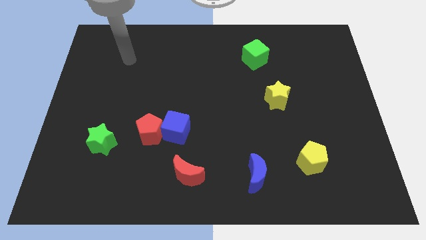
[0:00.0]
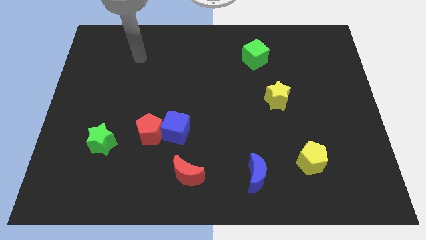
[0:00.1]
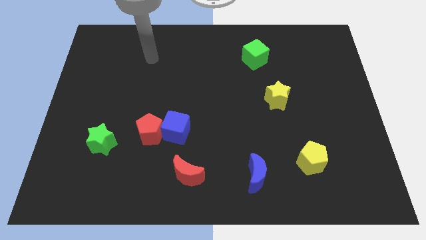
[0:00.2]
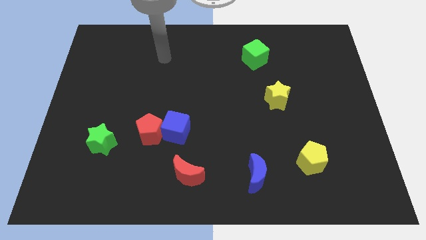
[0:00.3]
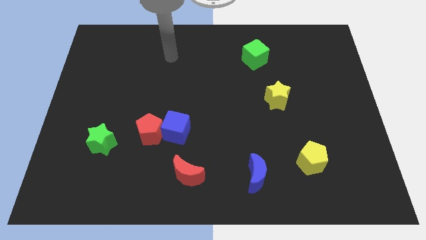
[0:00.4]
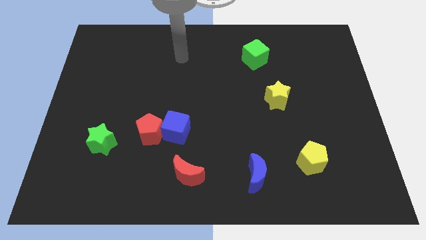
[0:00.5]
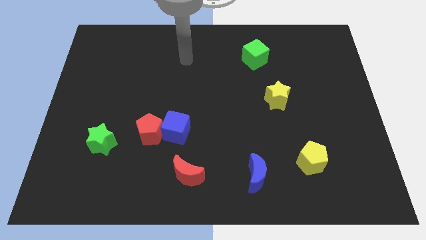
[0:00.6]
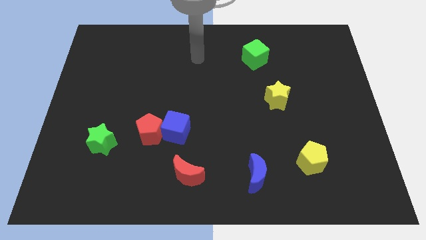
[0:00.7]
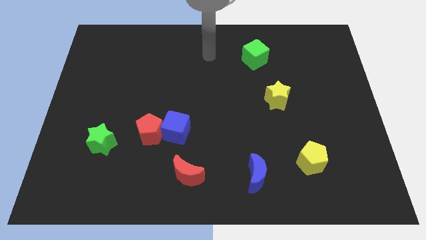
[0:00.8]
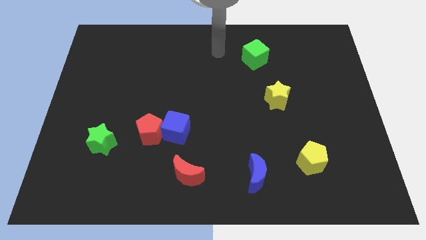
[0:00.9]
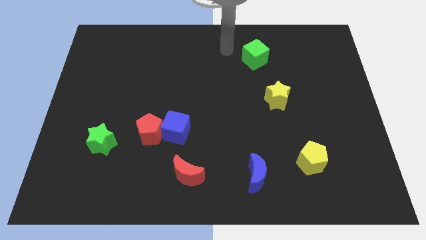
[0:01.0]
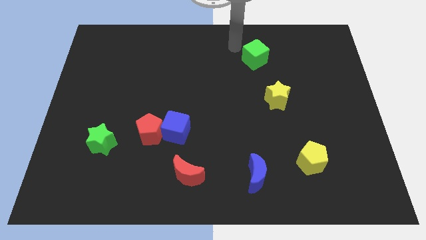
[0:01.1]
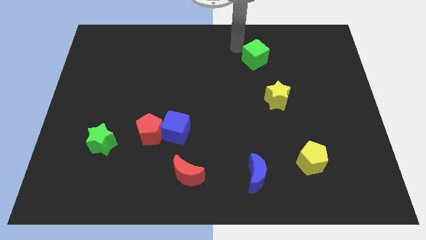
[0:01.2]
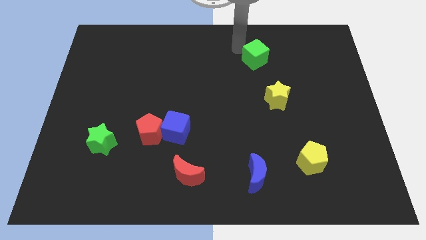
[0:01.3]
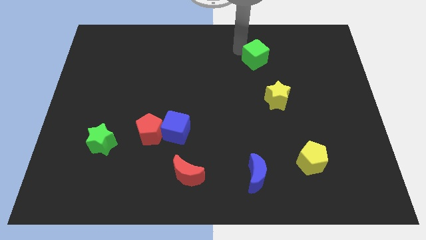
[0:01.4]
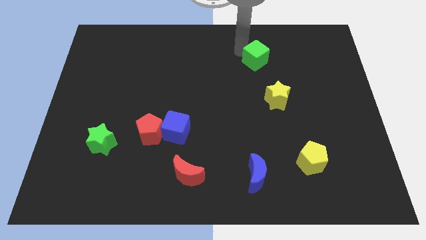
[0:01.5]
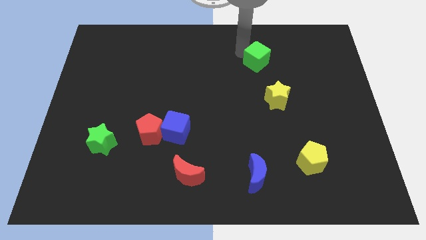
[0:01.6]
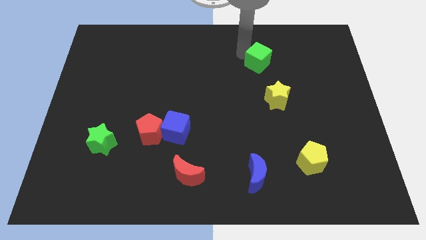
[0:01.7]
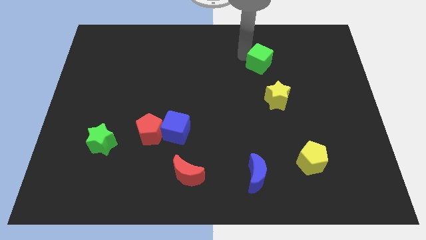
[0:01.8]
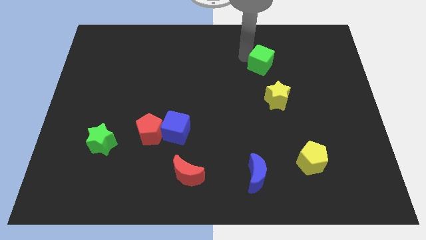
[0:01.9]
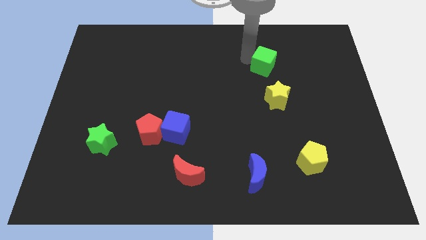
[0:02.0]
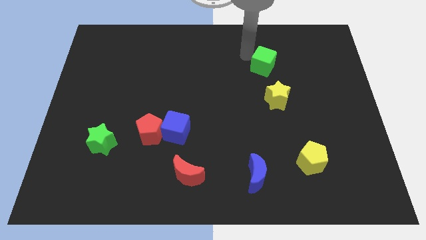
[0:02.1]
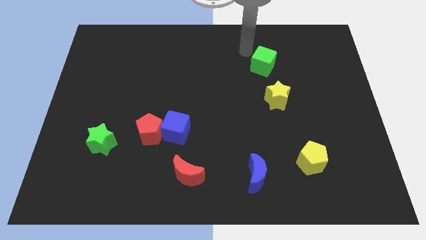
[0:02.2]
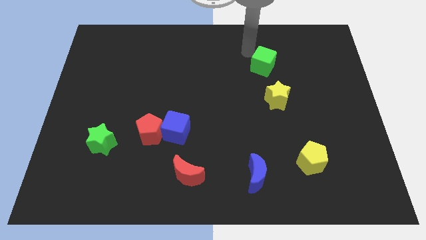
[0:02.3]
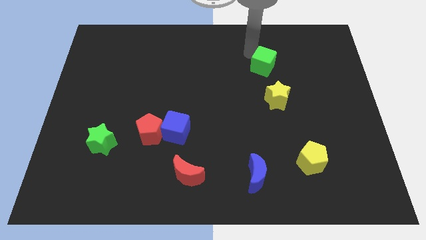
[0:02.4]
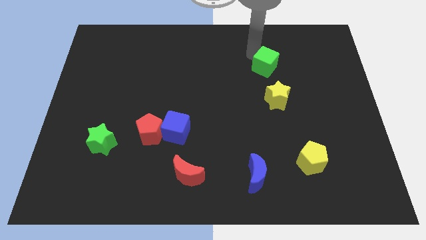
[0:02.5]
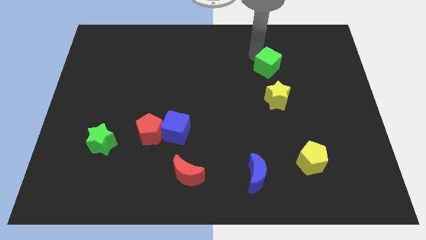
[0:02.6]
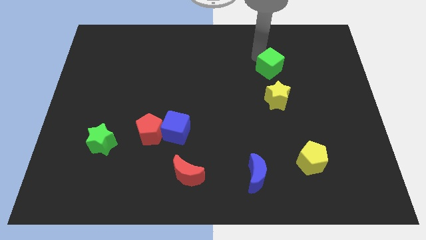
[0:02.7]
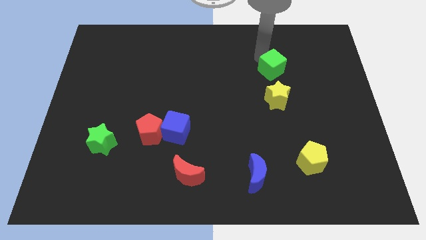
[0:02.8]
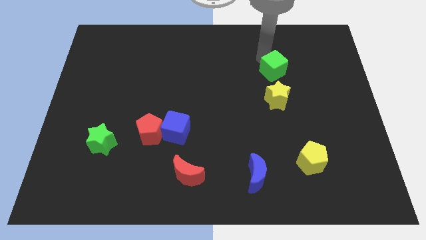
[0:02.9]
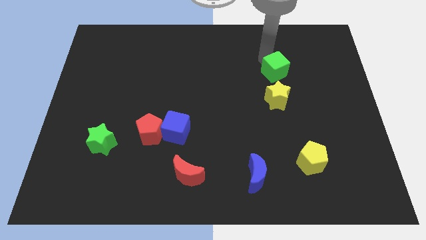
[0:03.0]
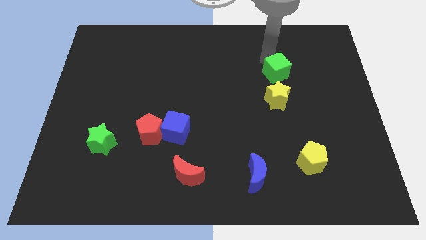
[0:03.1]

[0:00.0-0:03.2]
move the green cube down and to the right a little

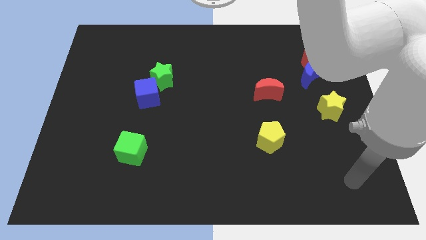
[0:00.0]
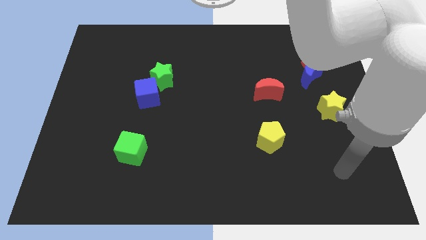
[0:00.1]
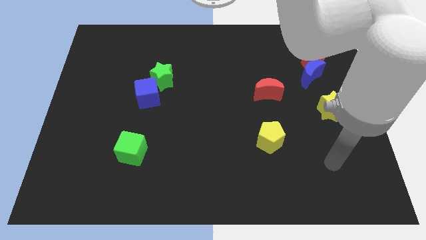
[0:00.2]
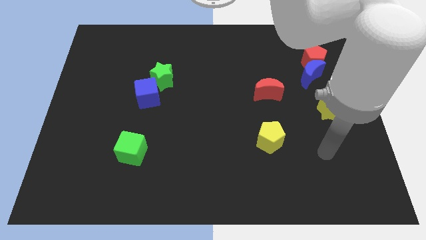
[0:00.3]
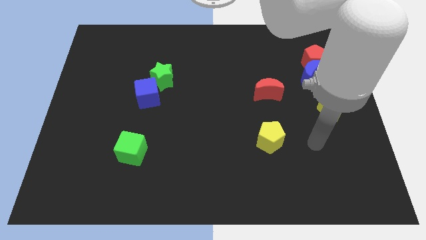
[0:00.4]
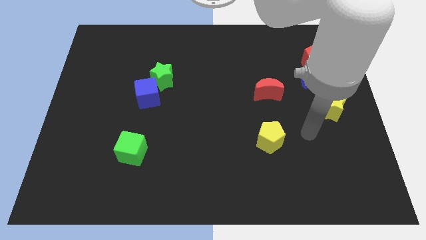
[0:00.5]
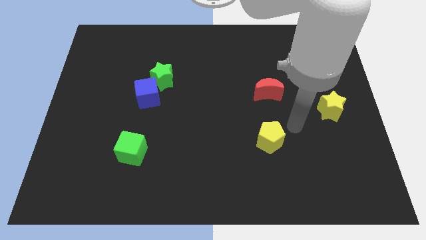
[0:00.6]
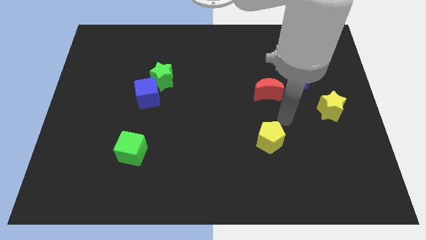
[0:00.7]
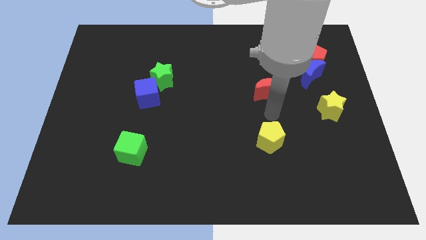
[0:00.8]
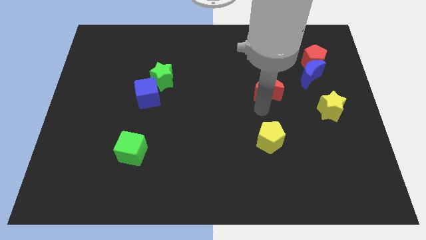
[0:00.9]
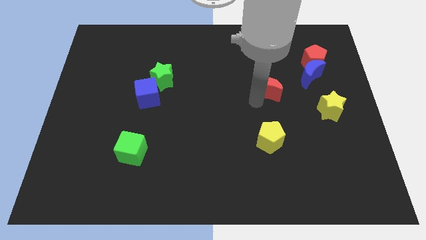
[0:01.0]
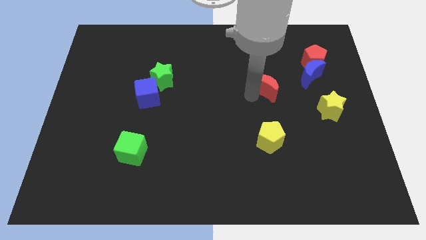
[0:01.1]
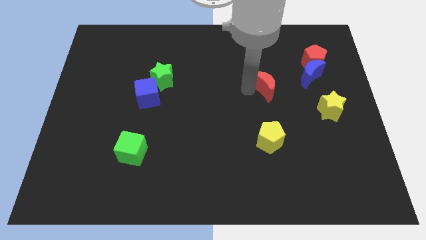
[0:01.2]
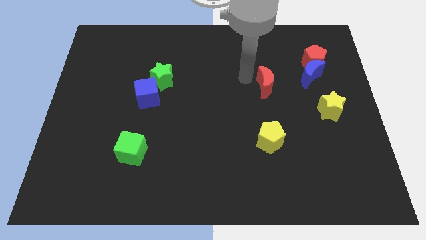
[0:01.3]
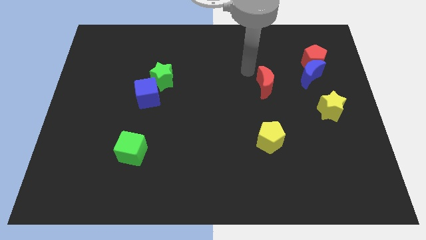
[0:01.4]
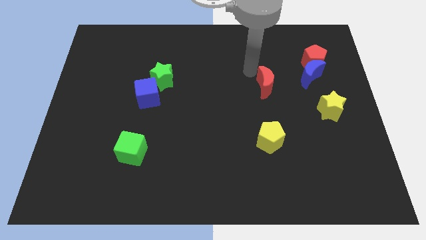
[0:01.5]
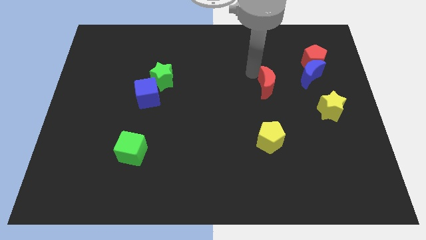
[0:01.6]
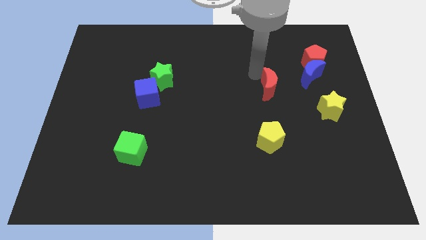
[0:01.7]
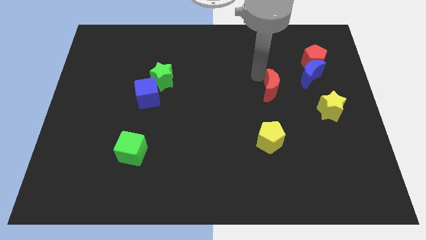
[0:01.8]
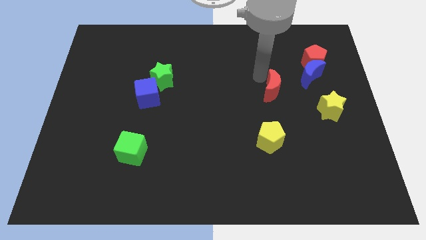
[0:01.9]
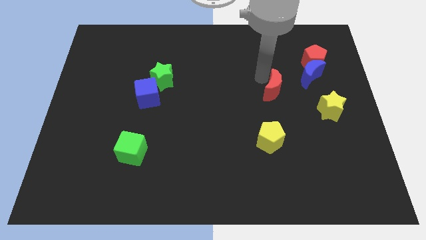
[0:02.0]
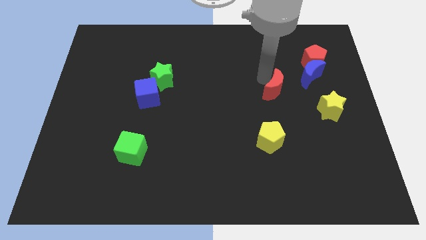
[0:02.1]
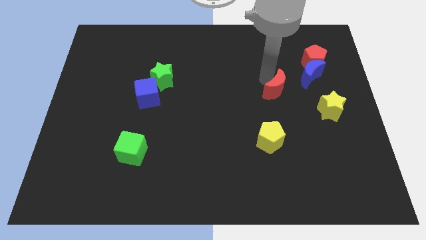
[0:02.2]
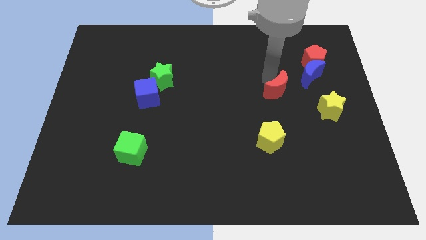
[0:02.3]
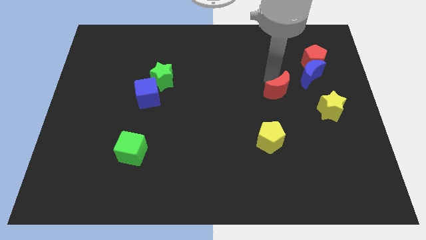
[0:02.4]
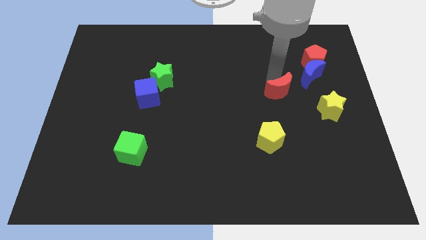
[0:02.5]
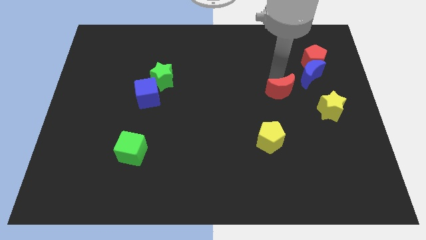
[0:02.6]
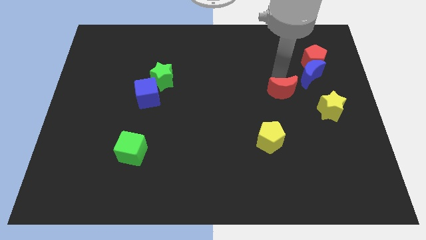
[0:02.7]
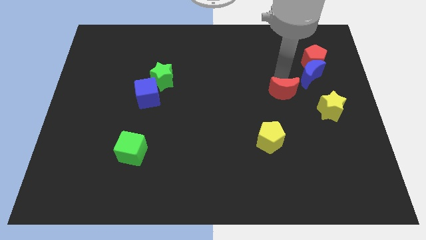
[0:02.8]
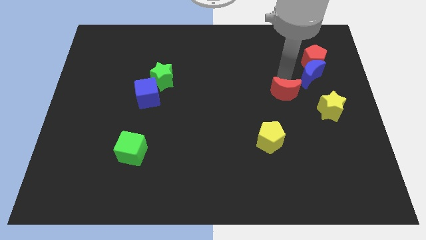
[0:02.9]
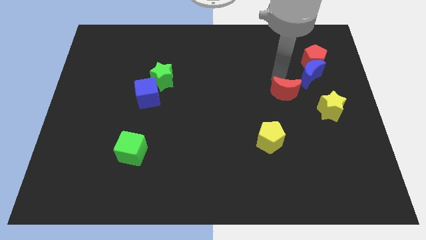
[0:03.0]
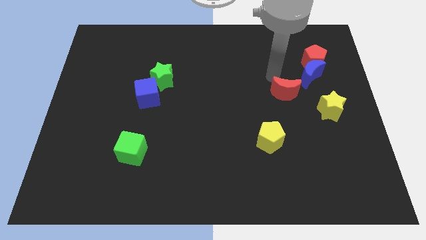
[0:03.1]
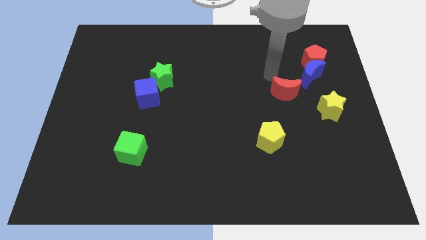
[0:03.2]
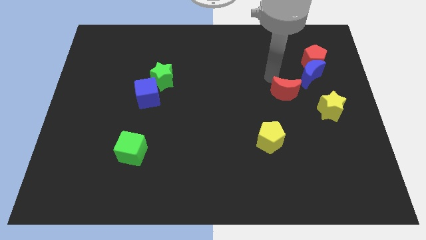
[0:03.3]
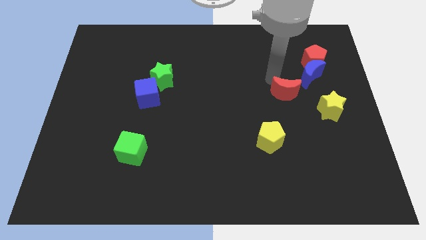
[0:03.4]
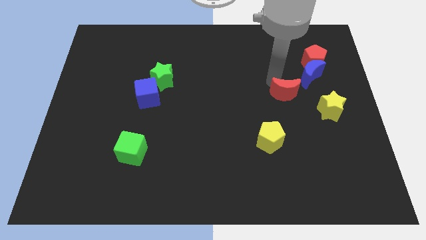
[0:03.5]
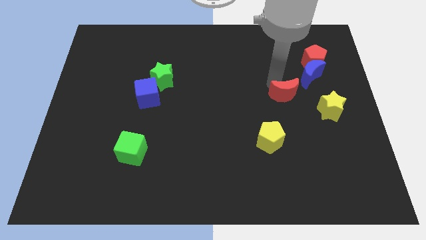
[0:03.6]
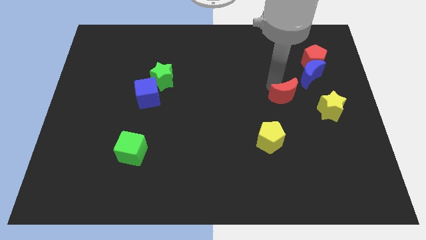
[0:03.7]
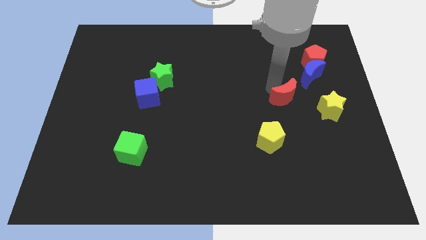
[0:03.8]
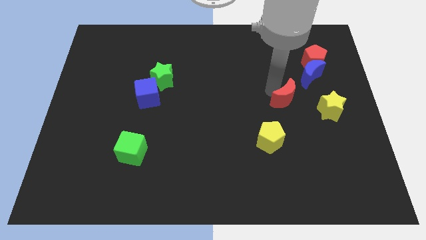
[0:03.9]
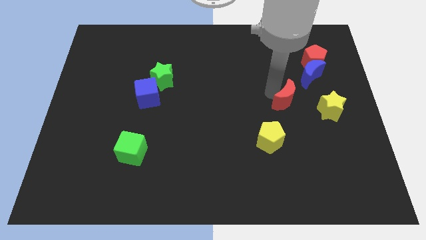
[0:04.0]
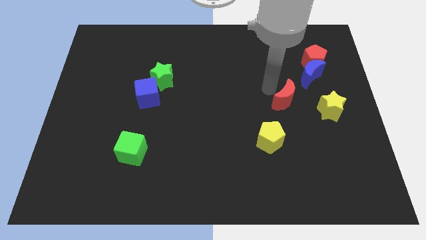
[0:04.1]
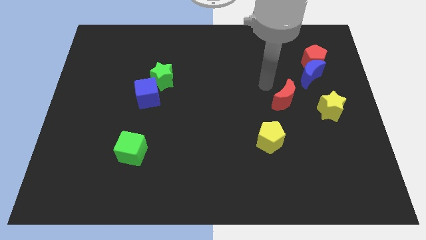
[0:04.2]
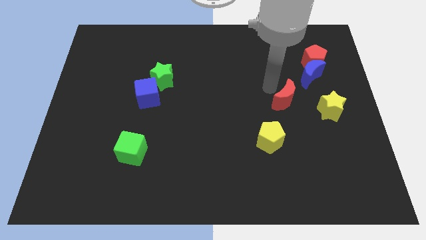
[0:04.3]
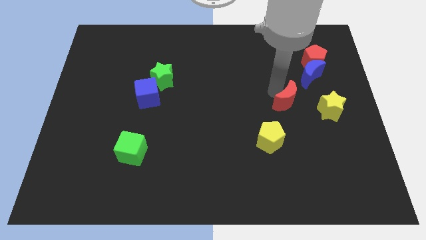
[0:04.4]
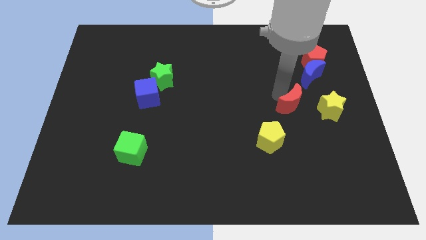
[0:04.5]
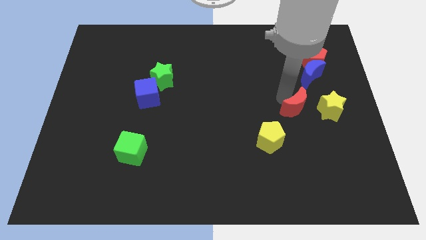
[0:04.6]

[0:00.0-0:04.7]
slightly move the red moon diagonally down and to the right

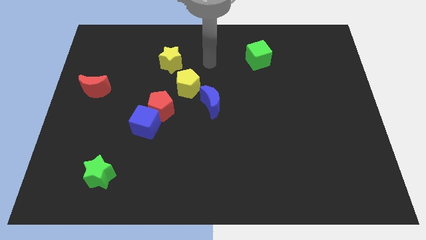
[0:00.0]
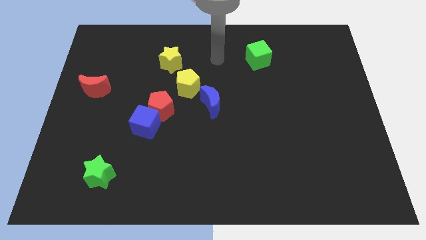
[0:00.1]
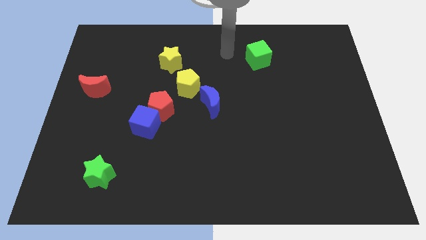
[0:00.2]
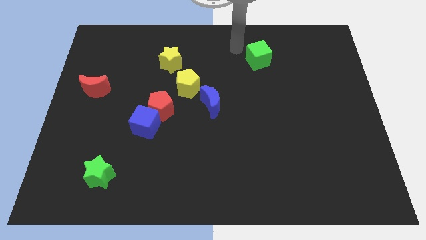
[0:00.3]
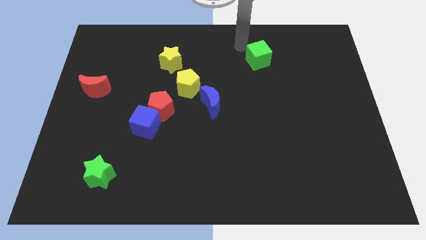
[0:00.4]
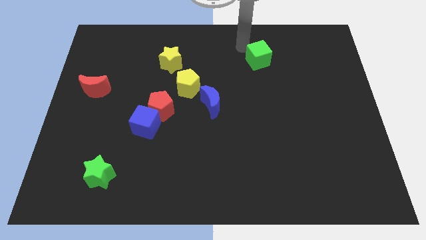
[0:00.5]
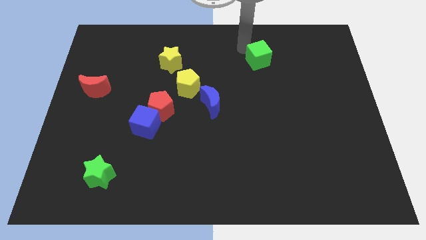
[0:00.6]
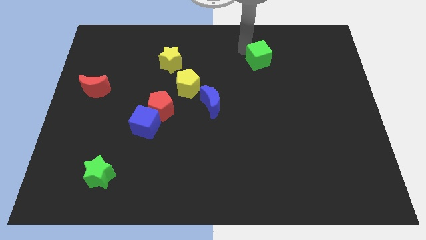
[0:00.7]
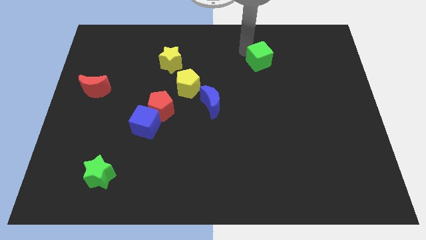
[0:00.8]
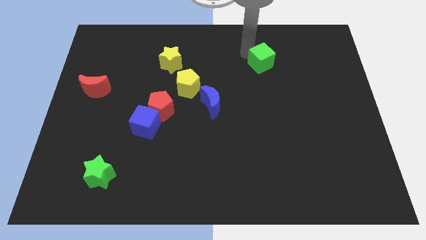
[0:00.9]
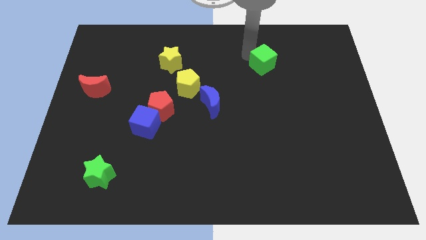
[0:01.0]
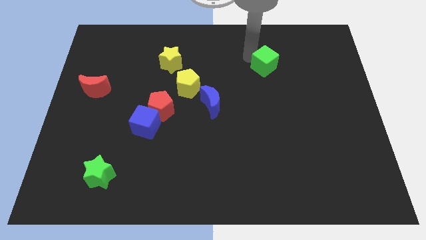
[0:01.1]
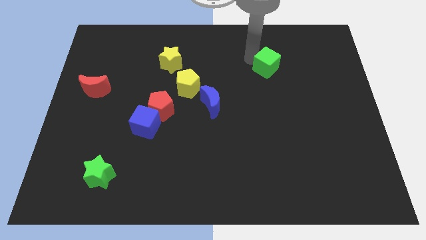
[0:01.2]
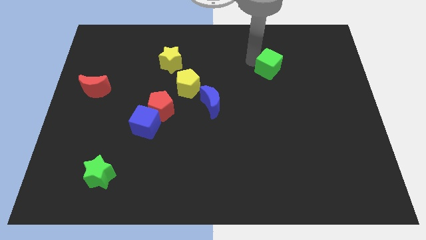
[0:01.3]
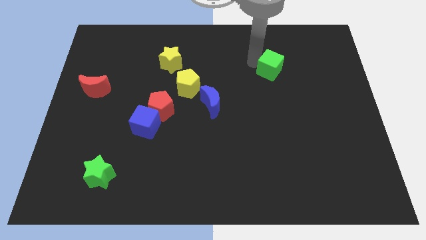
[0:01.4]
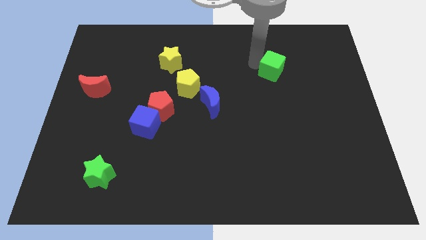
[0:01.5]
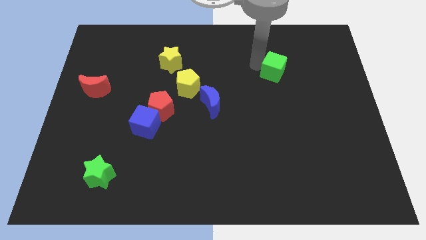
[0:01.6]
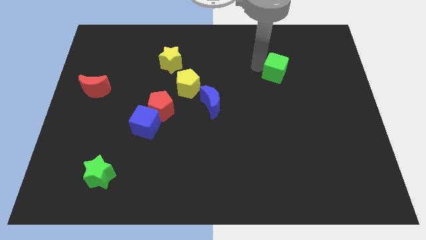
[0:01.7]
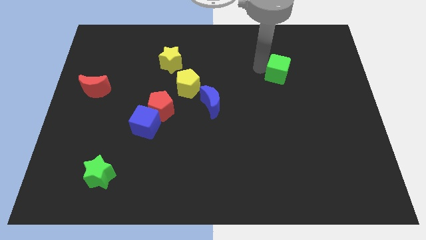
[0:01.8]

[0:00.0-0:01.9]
slightly move the green cube diagonally downwards and to the right
